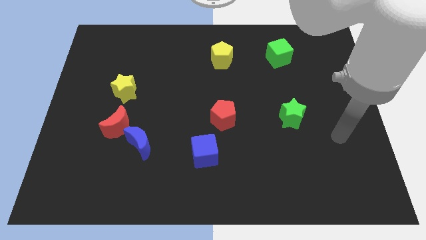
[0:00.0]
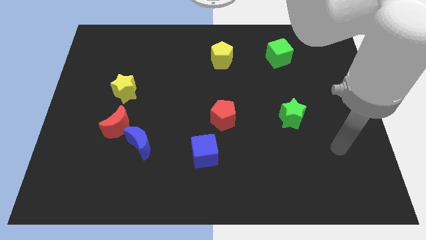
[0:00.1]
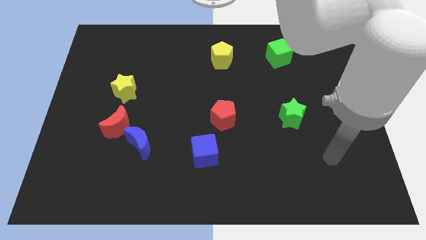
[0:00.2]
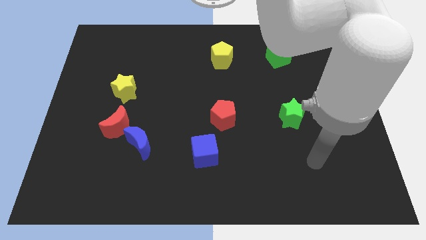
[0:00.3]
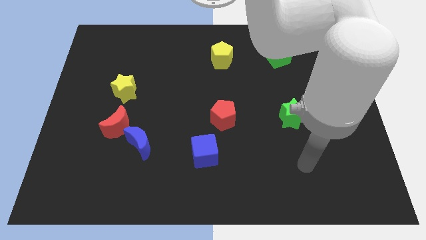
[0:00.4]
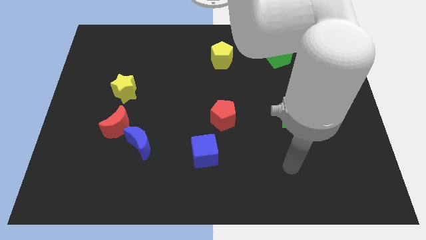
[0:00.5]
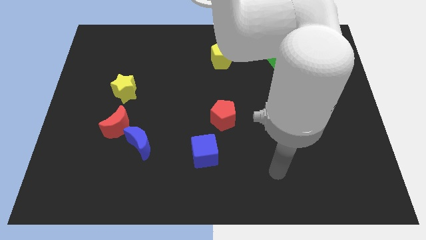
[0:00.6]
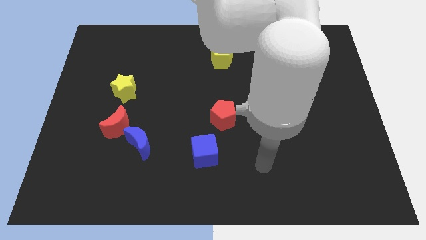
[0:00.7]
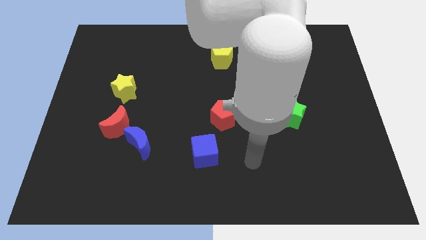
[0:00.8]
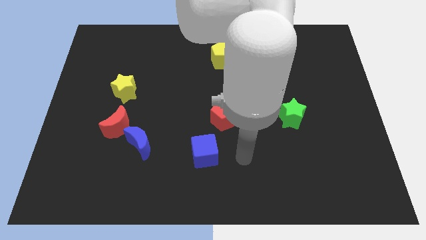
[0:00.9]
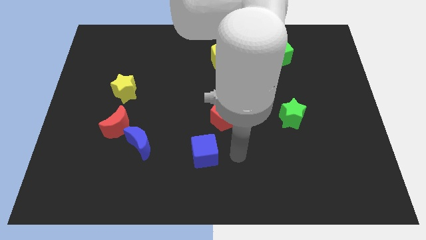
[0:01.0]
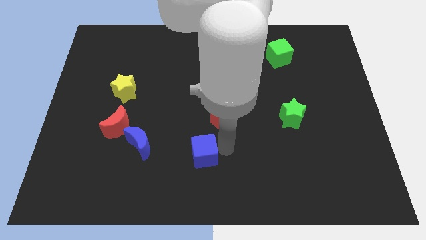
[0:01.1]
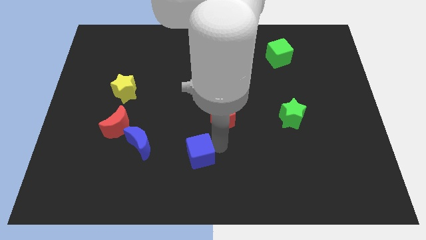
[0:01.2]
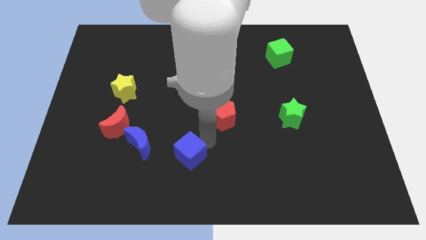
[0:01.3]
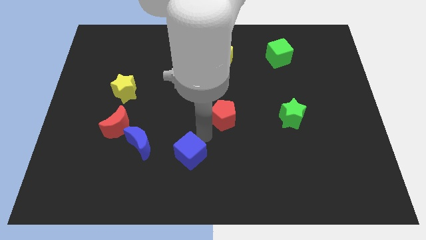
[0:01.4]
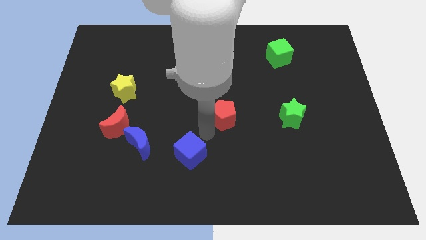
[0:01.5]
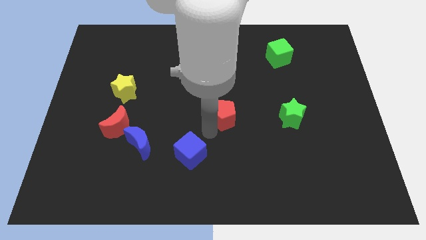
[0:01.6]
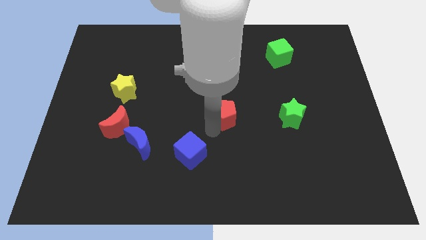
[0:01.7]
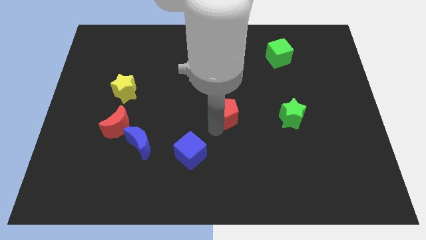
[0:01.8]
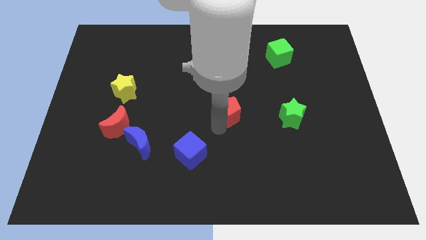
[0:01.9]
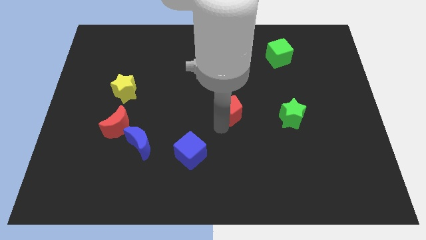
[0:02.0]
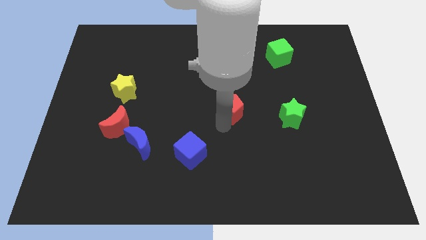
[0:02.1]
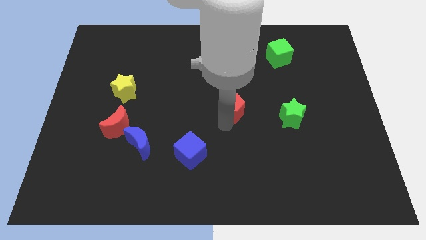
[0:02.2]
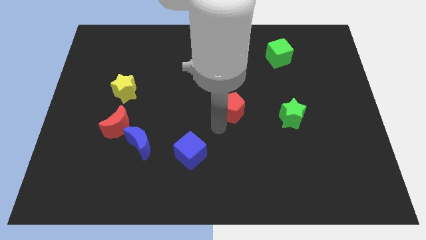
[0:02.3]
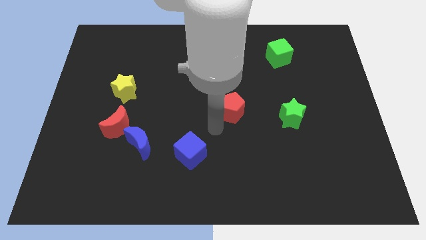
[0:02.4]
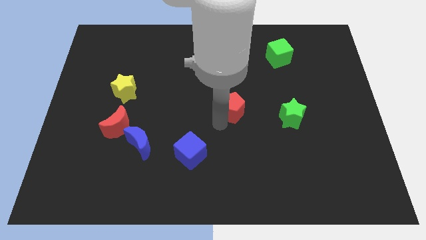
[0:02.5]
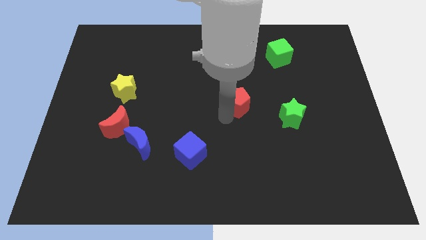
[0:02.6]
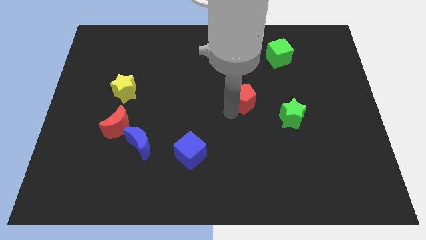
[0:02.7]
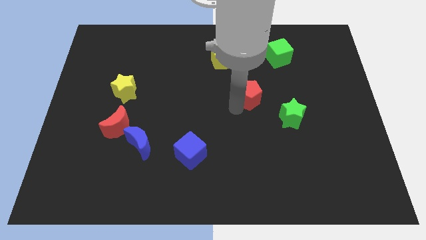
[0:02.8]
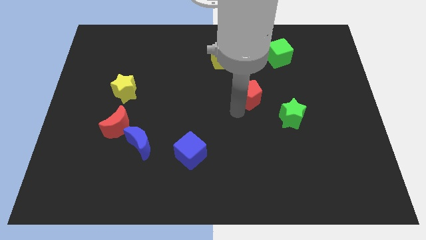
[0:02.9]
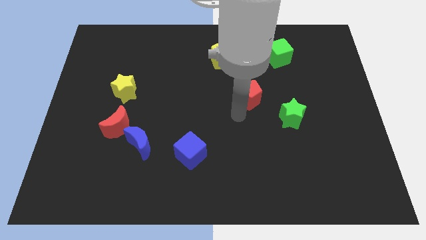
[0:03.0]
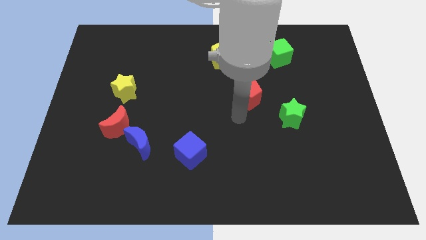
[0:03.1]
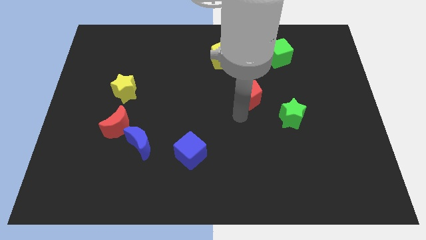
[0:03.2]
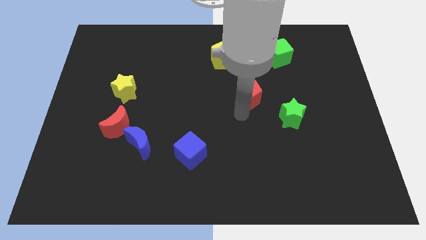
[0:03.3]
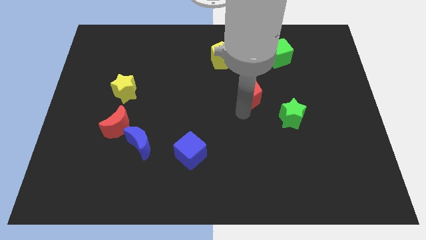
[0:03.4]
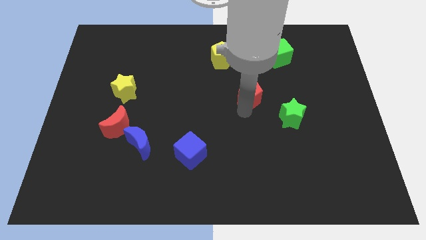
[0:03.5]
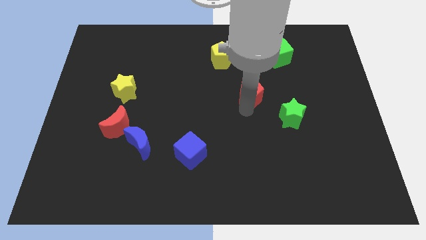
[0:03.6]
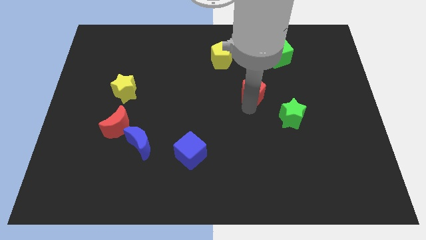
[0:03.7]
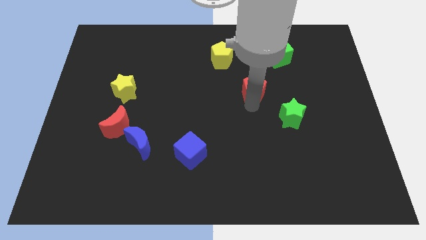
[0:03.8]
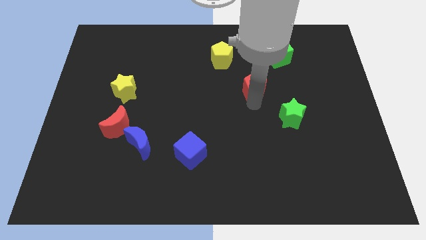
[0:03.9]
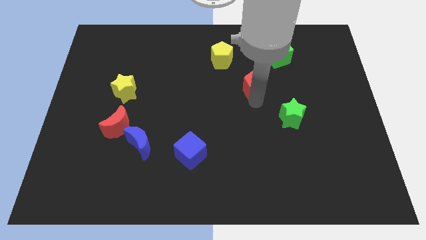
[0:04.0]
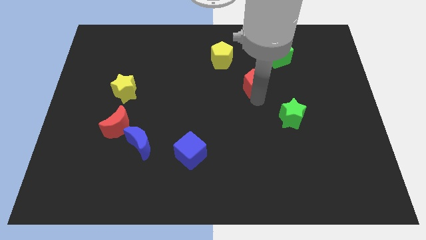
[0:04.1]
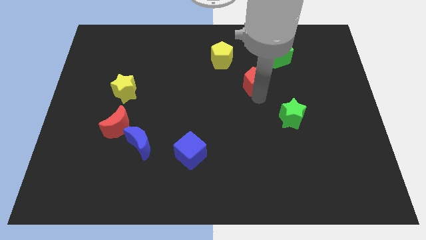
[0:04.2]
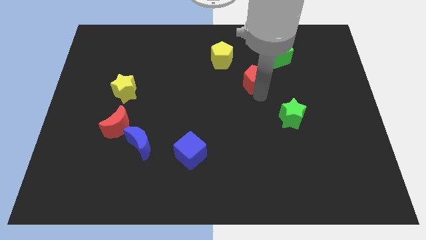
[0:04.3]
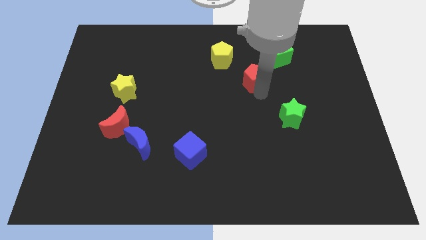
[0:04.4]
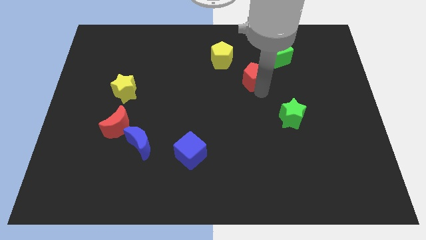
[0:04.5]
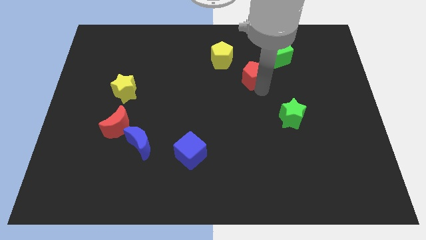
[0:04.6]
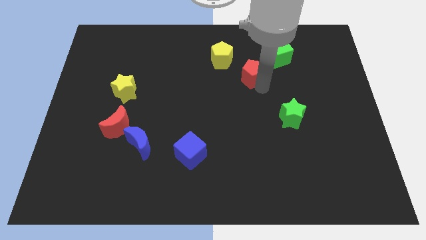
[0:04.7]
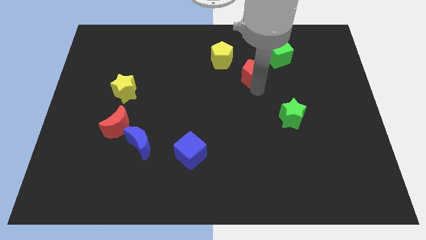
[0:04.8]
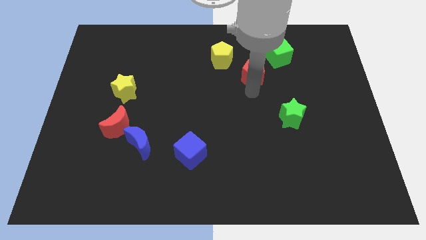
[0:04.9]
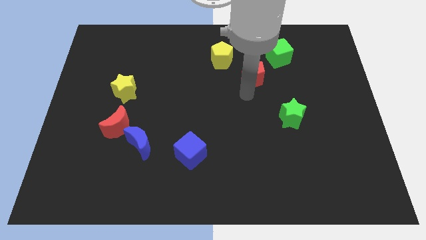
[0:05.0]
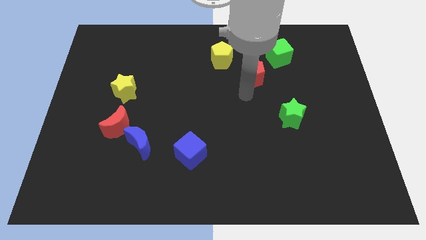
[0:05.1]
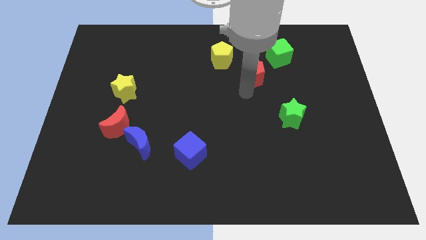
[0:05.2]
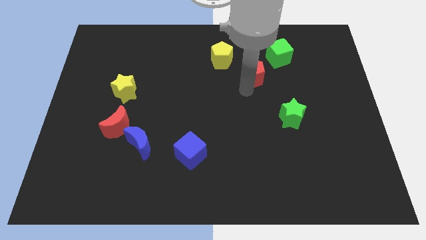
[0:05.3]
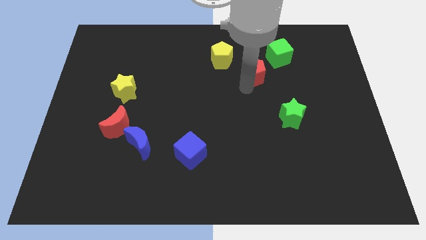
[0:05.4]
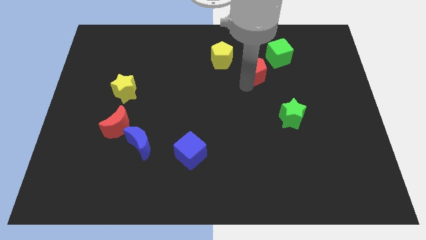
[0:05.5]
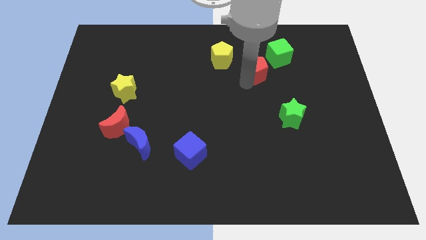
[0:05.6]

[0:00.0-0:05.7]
move the red pentagon to the right of the yellow pentagon

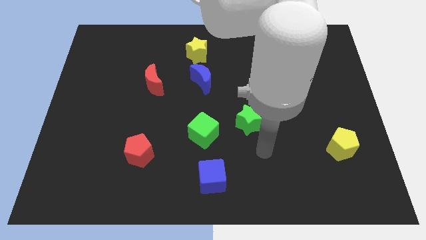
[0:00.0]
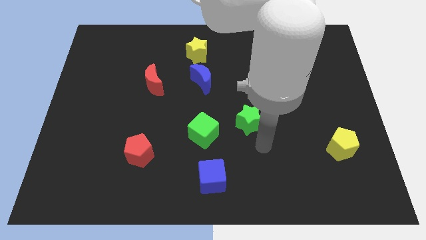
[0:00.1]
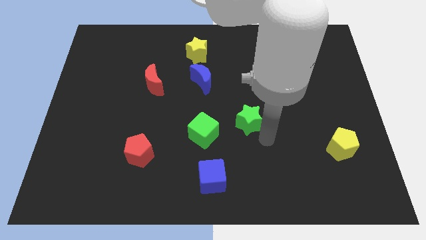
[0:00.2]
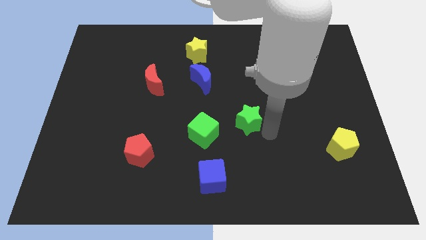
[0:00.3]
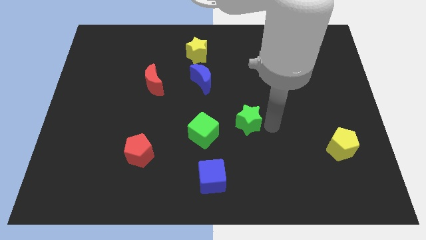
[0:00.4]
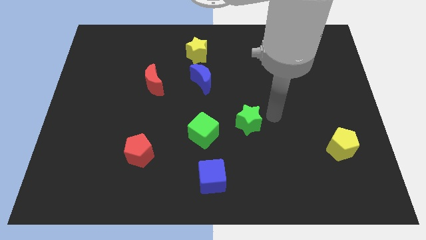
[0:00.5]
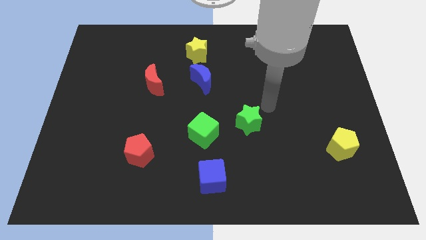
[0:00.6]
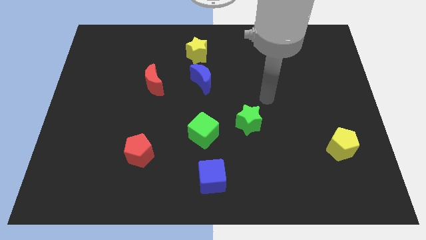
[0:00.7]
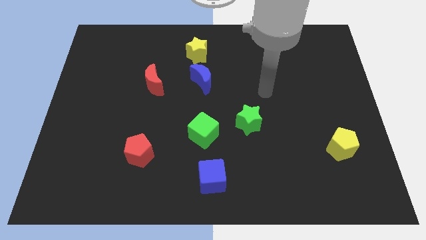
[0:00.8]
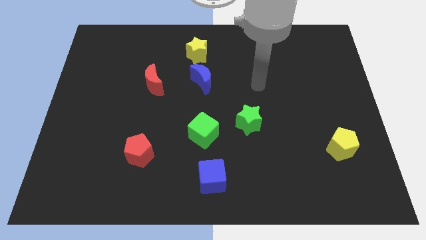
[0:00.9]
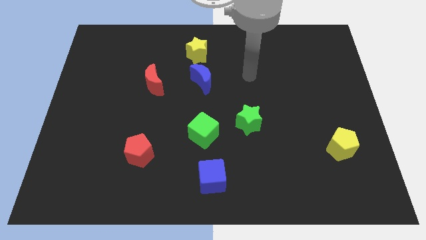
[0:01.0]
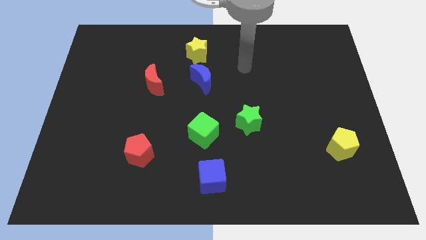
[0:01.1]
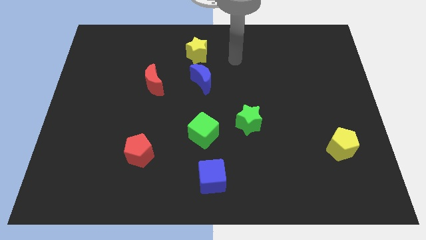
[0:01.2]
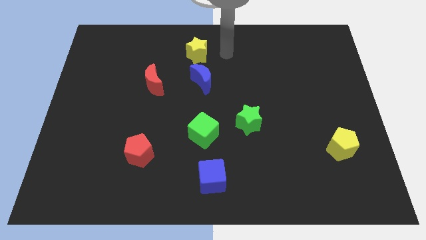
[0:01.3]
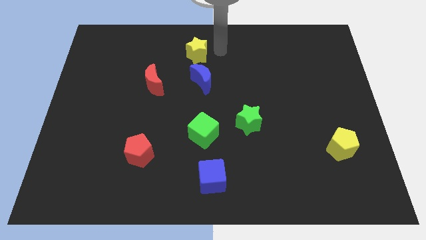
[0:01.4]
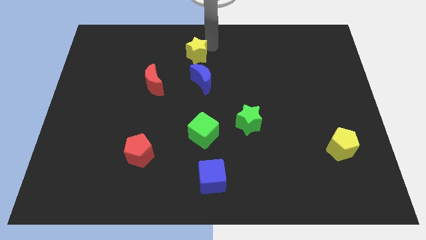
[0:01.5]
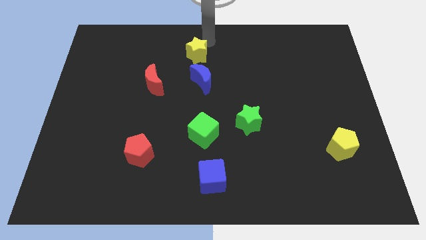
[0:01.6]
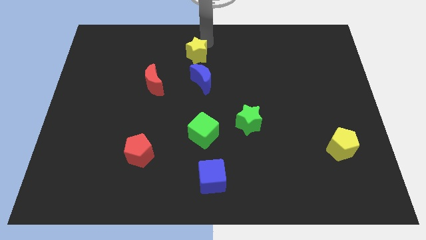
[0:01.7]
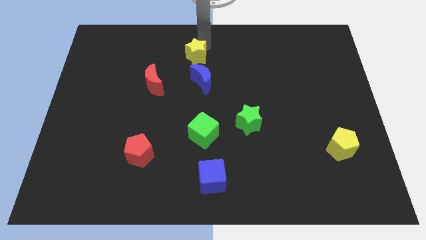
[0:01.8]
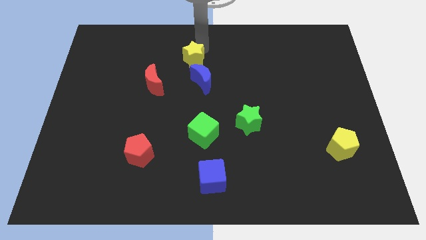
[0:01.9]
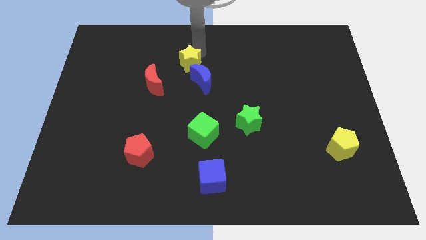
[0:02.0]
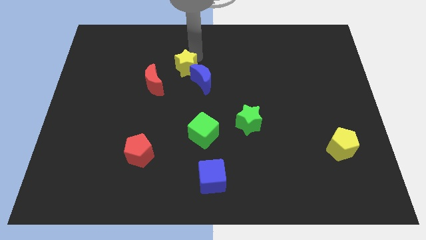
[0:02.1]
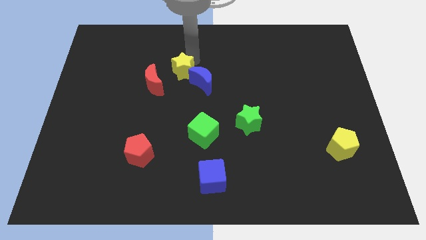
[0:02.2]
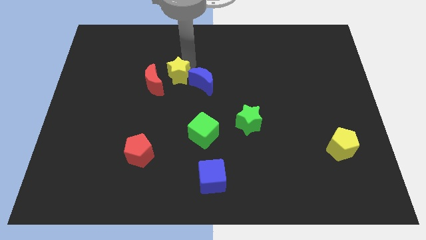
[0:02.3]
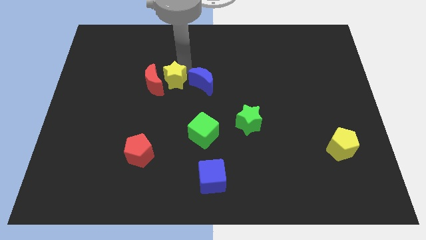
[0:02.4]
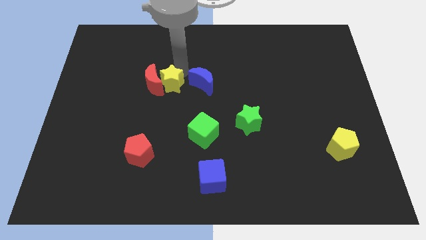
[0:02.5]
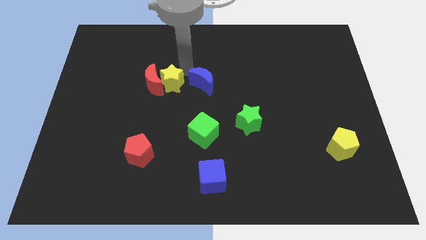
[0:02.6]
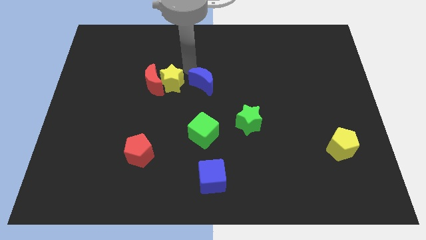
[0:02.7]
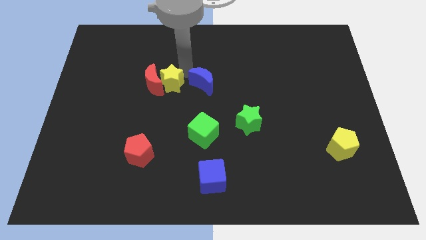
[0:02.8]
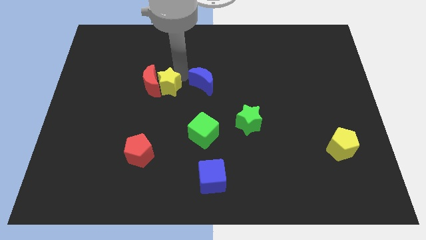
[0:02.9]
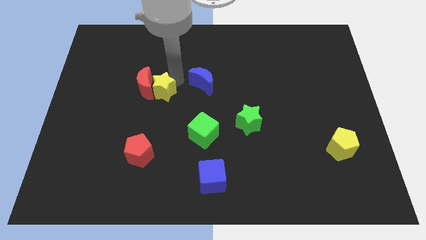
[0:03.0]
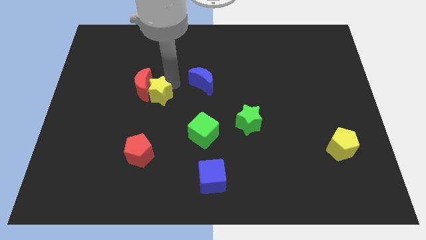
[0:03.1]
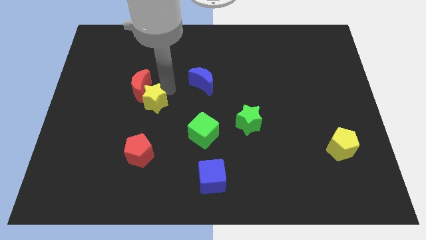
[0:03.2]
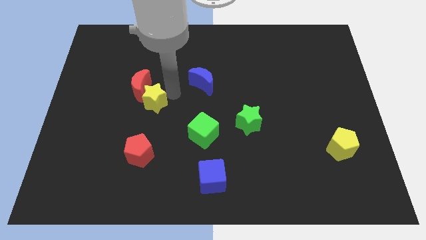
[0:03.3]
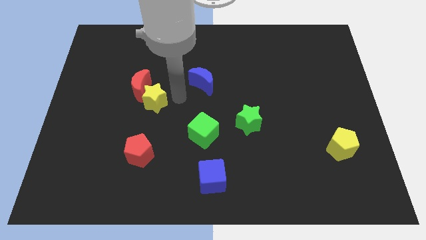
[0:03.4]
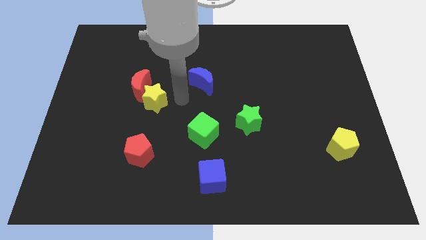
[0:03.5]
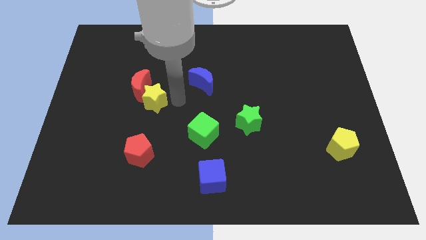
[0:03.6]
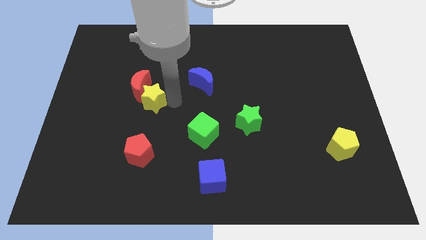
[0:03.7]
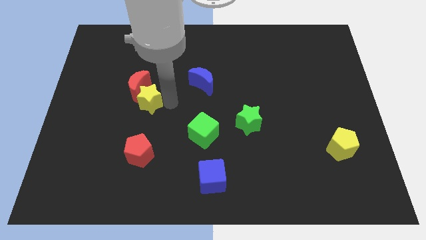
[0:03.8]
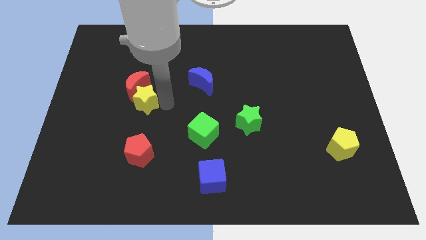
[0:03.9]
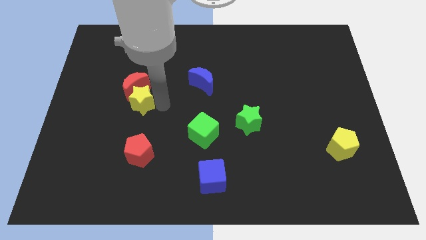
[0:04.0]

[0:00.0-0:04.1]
move the yellow star to the bottom left side of the red moon
